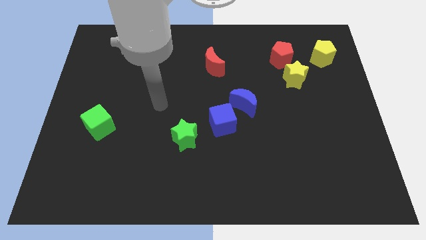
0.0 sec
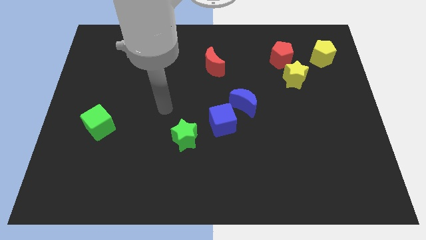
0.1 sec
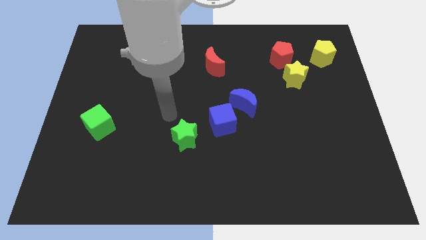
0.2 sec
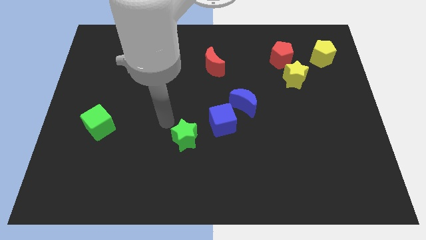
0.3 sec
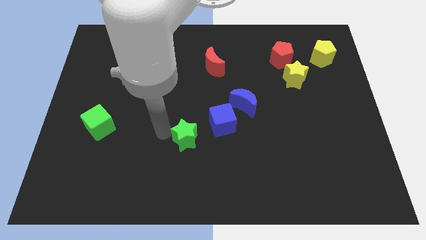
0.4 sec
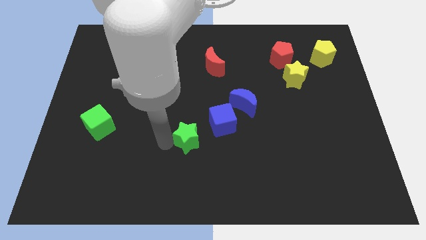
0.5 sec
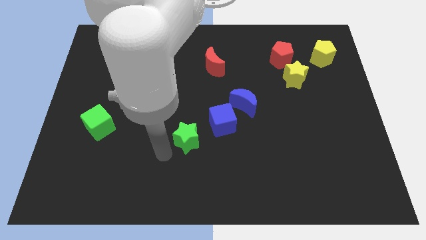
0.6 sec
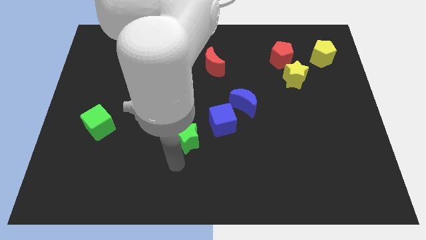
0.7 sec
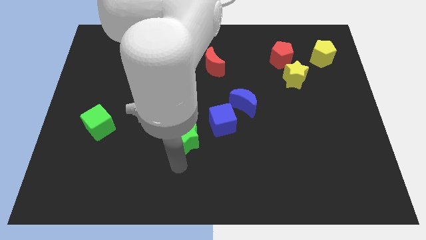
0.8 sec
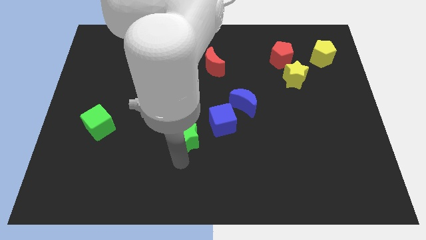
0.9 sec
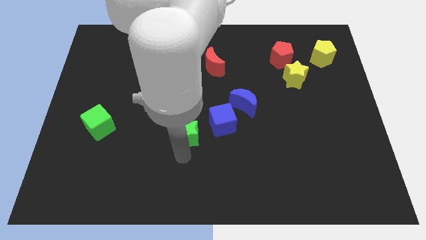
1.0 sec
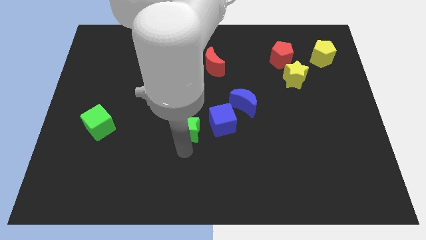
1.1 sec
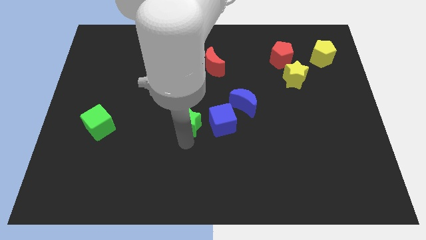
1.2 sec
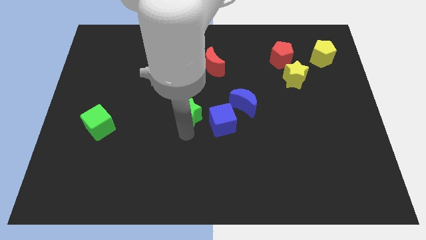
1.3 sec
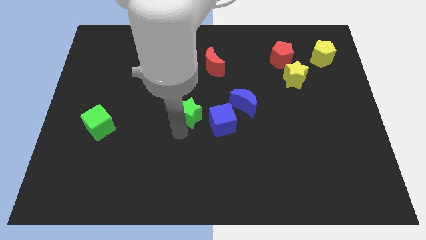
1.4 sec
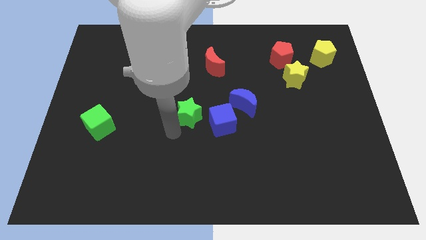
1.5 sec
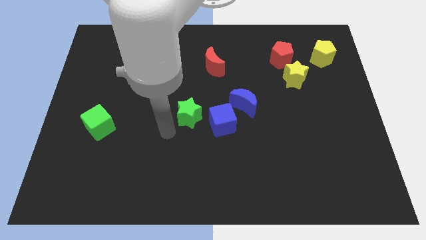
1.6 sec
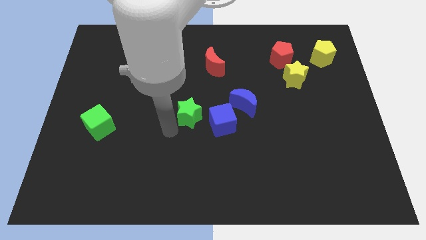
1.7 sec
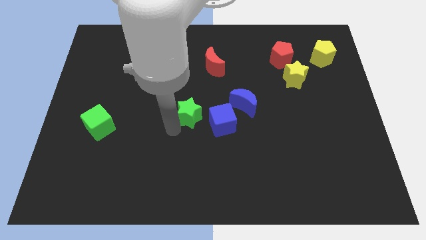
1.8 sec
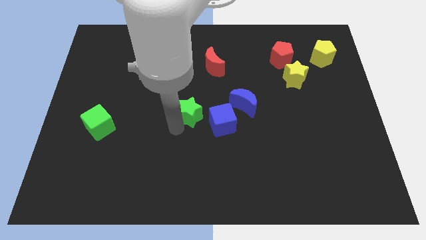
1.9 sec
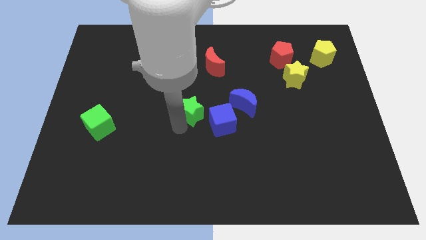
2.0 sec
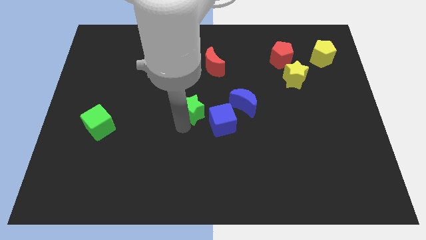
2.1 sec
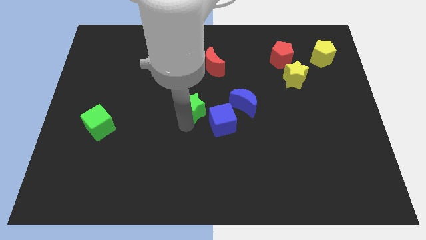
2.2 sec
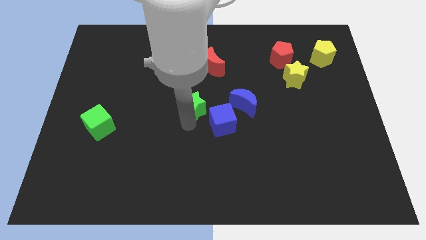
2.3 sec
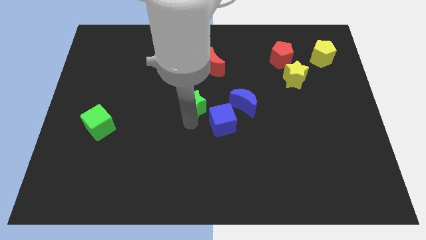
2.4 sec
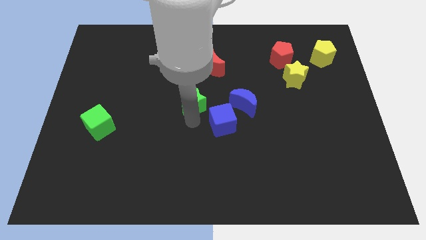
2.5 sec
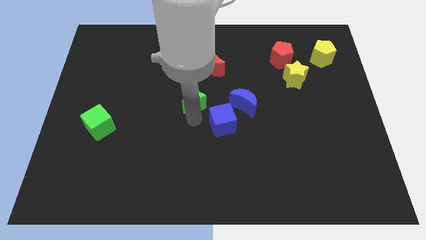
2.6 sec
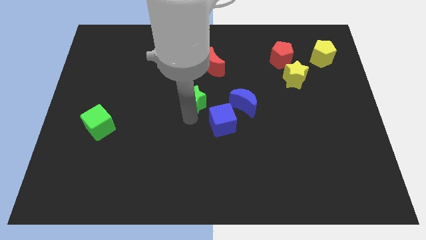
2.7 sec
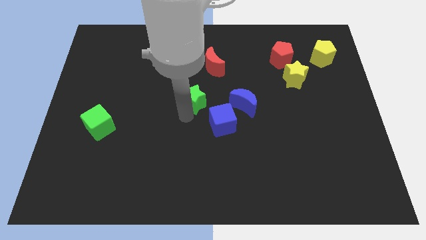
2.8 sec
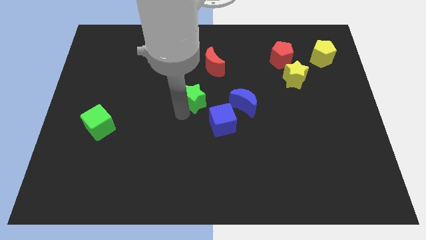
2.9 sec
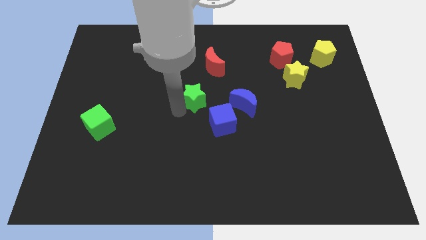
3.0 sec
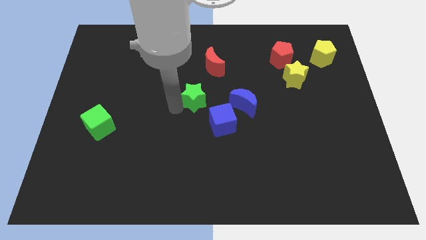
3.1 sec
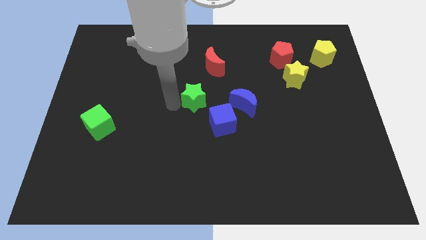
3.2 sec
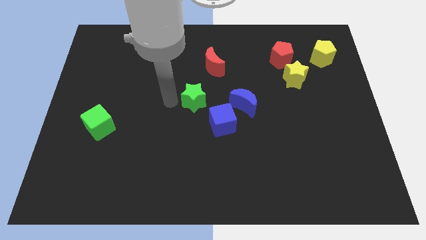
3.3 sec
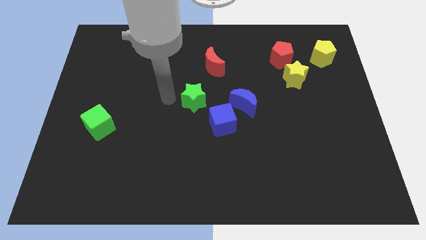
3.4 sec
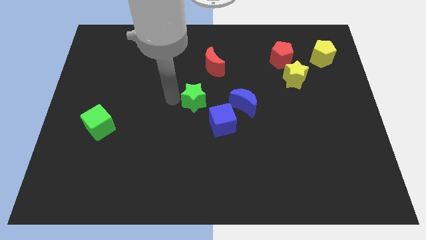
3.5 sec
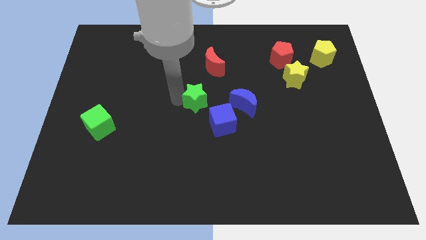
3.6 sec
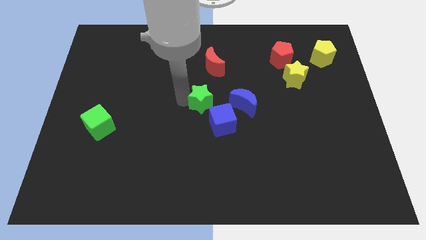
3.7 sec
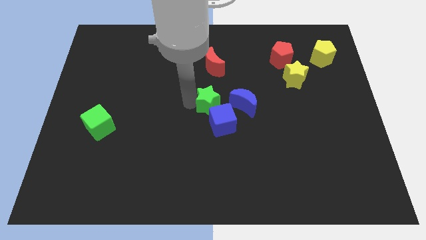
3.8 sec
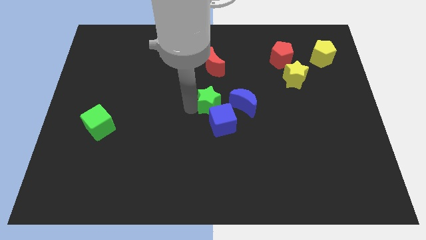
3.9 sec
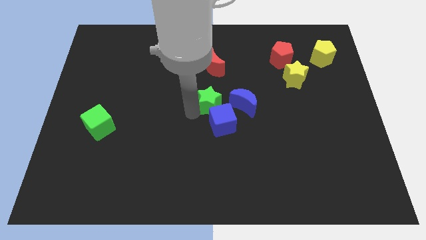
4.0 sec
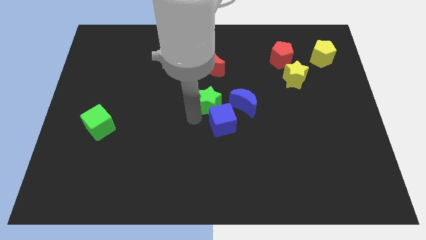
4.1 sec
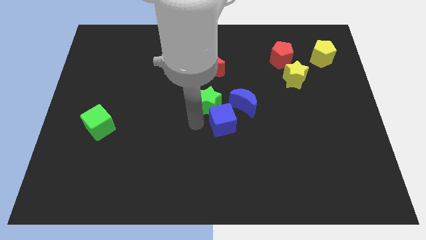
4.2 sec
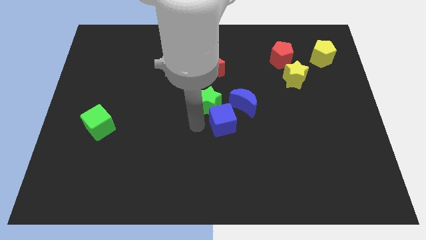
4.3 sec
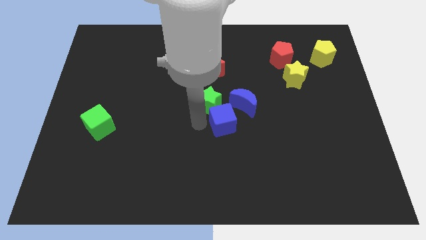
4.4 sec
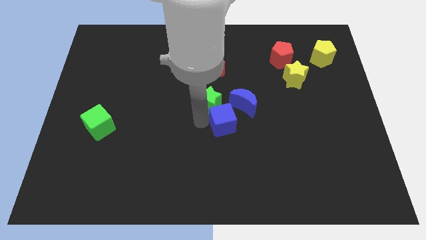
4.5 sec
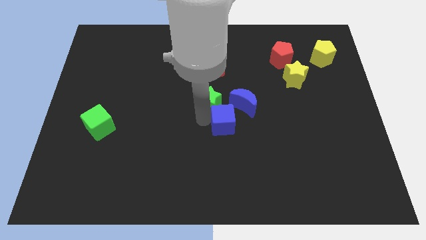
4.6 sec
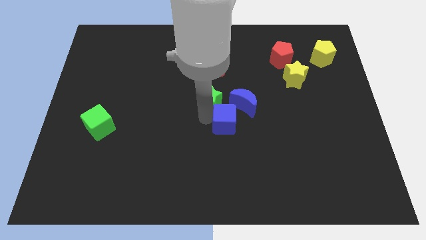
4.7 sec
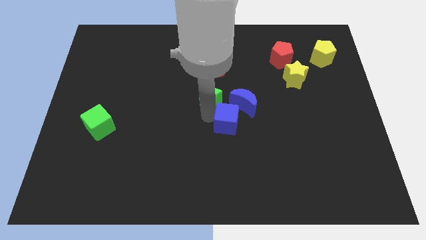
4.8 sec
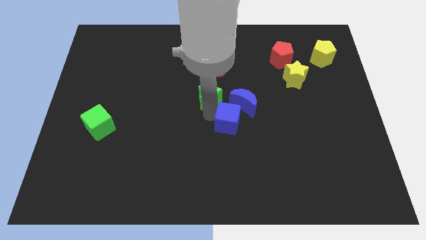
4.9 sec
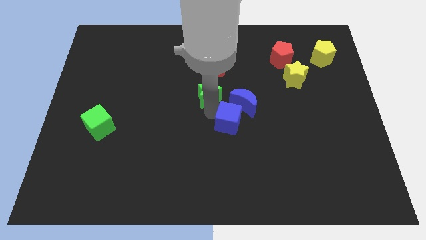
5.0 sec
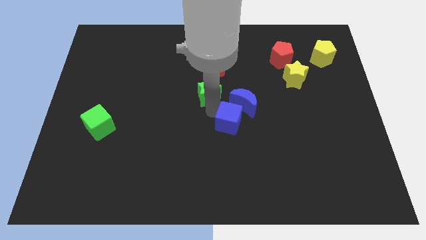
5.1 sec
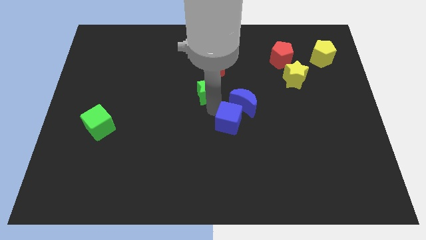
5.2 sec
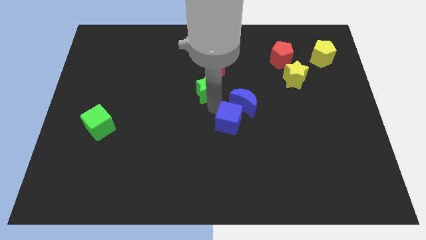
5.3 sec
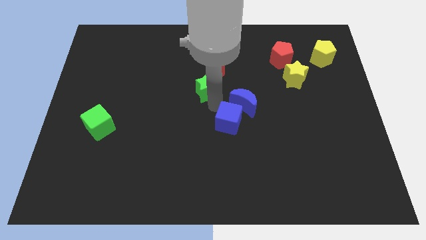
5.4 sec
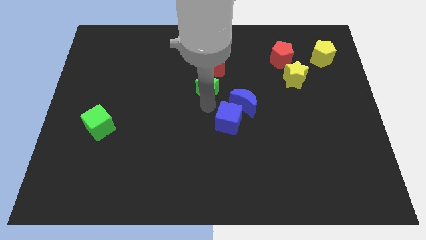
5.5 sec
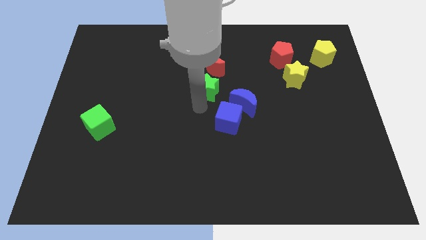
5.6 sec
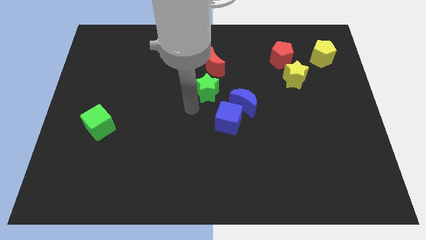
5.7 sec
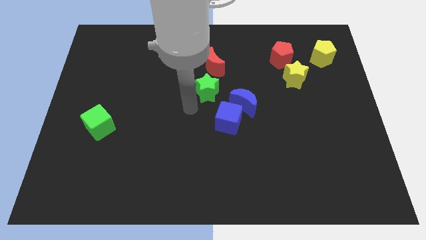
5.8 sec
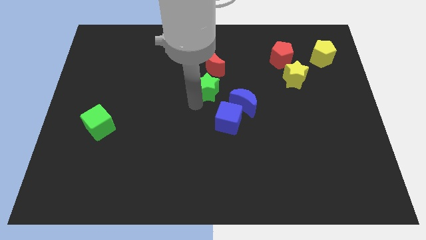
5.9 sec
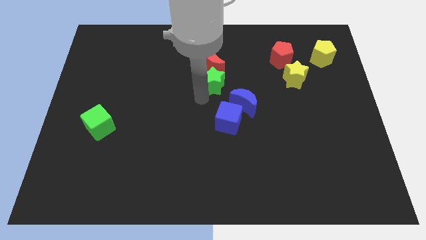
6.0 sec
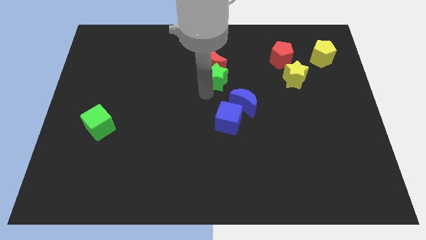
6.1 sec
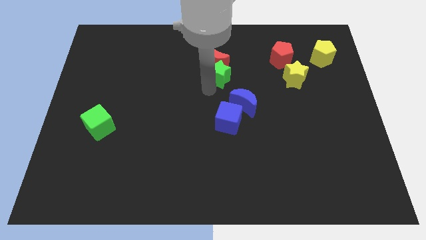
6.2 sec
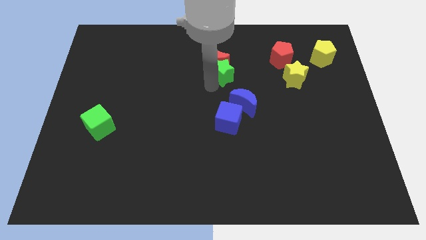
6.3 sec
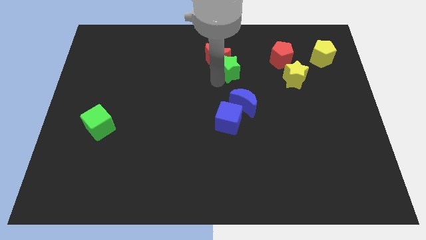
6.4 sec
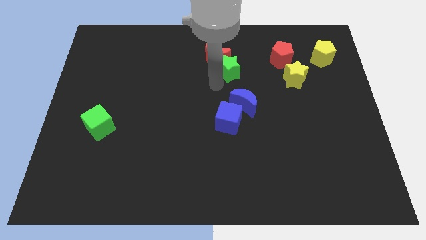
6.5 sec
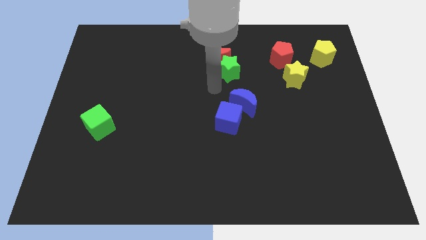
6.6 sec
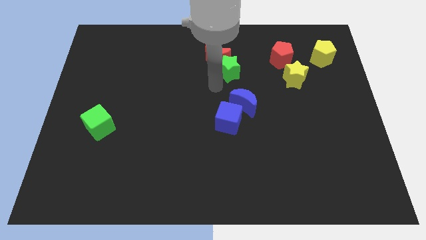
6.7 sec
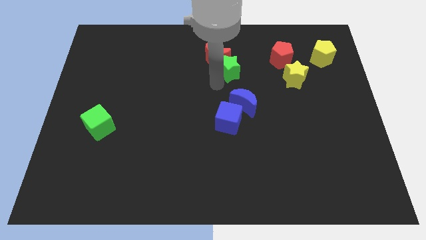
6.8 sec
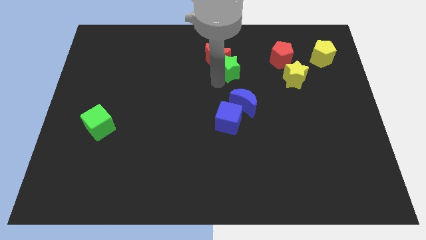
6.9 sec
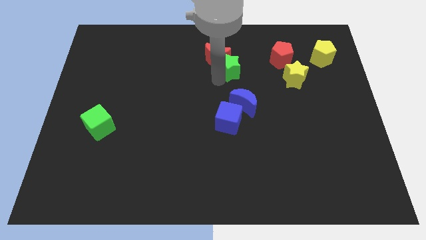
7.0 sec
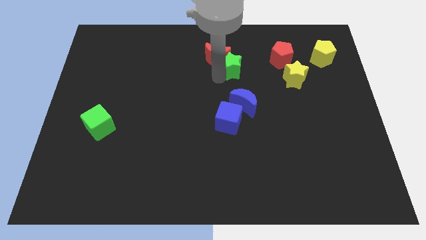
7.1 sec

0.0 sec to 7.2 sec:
slide the green star left of the red pentagon
